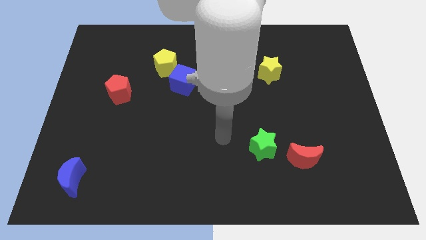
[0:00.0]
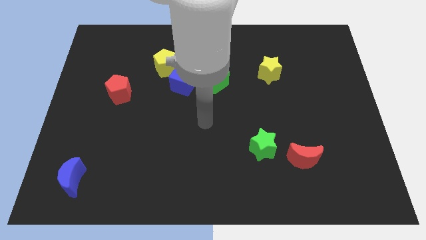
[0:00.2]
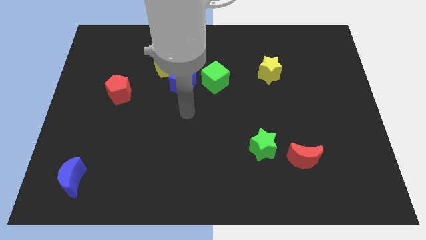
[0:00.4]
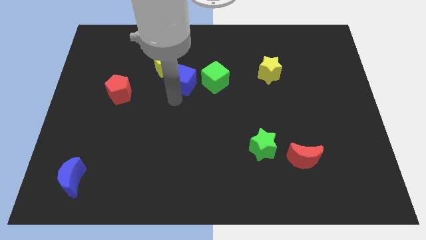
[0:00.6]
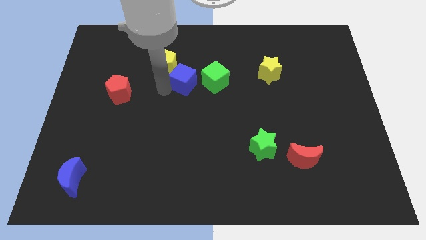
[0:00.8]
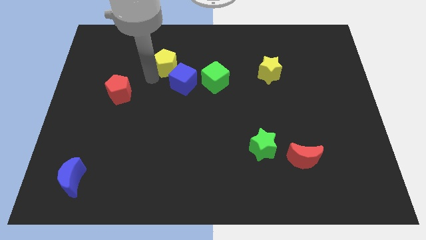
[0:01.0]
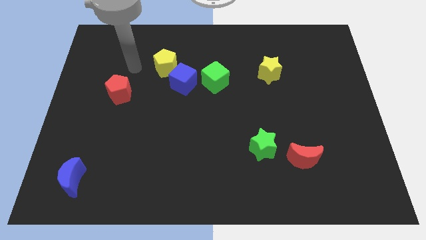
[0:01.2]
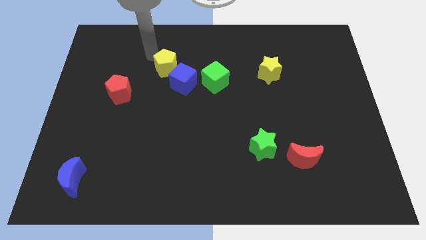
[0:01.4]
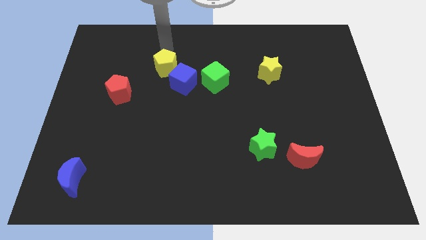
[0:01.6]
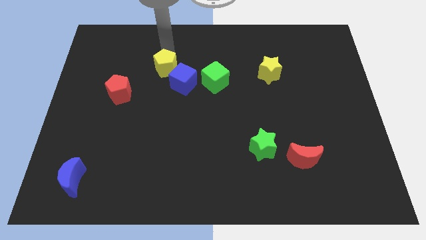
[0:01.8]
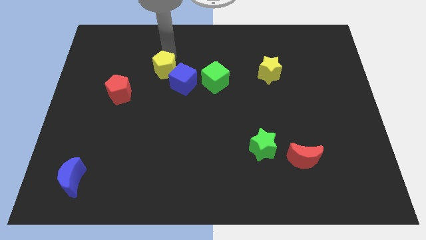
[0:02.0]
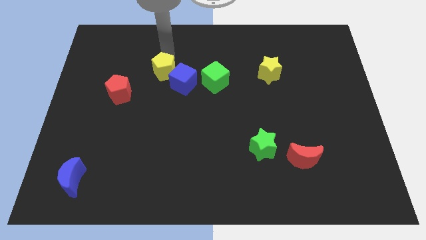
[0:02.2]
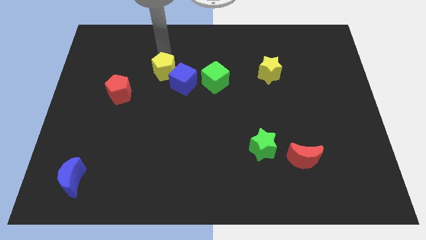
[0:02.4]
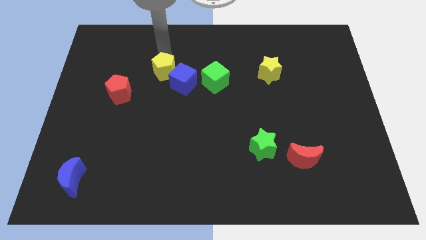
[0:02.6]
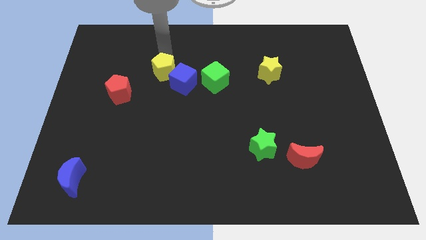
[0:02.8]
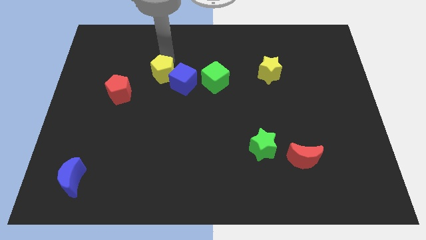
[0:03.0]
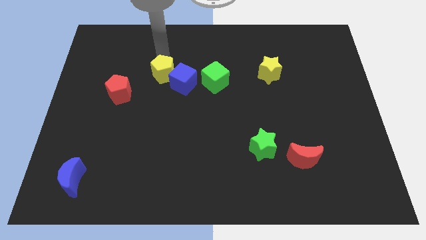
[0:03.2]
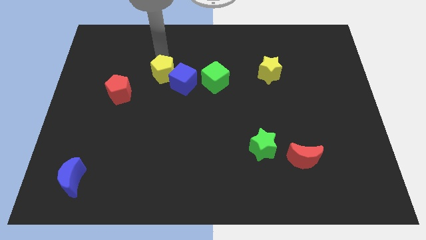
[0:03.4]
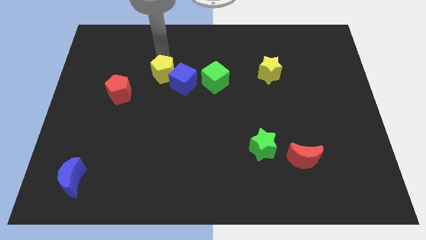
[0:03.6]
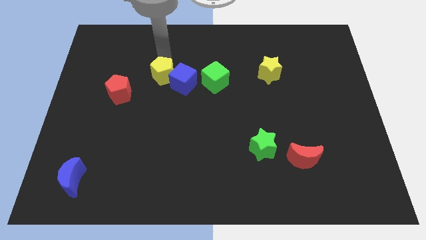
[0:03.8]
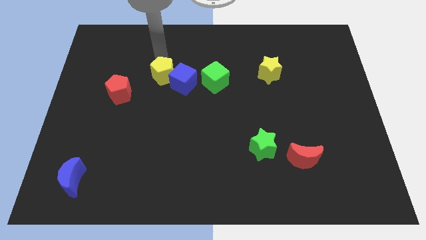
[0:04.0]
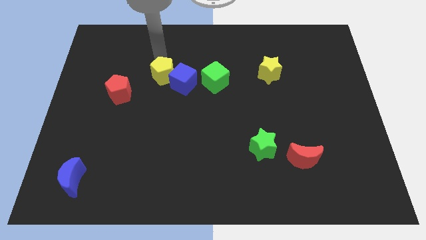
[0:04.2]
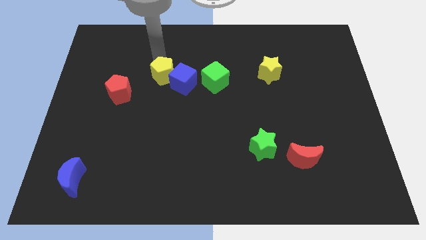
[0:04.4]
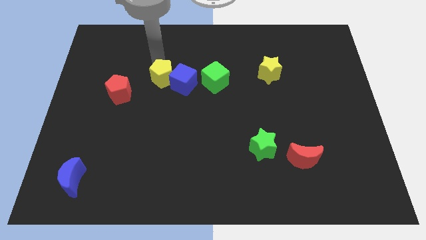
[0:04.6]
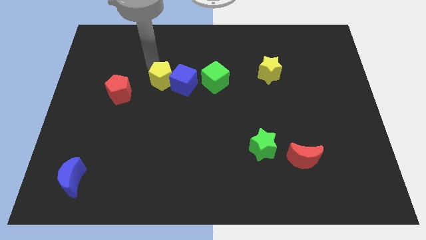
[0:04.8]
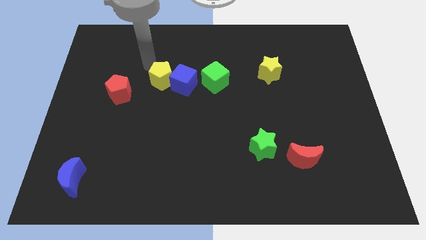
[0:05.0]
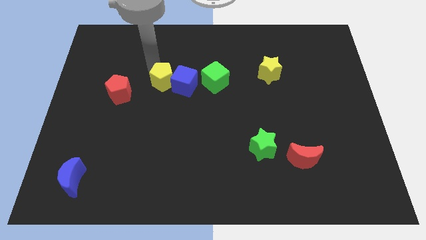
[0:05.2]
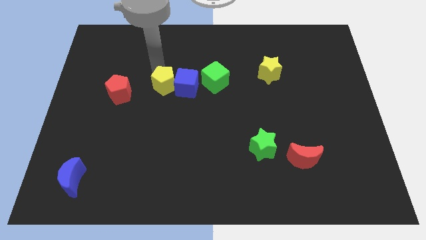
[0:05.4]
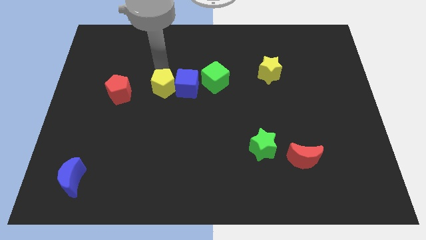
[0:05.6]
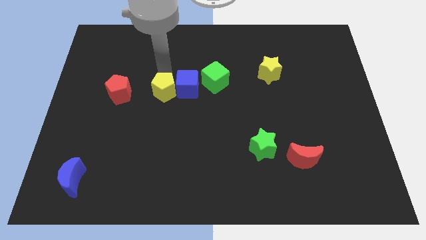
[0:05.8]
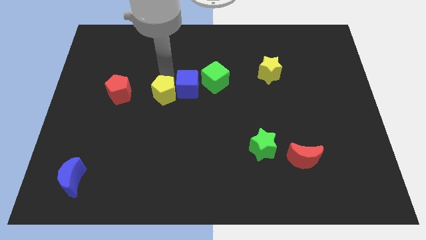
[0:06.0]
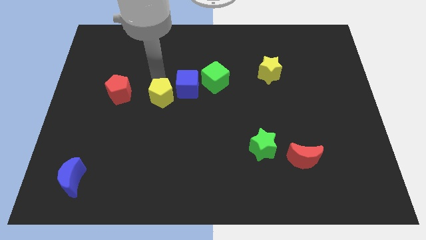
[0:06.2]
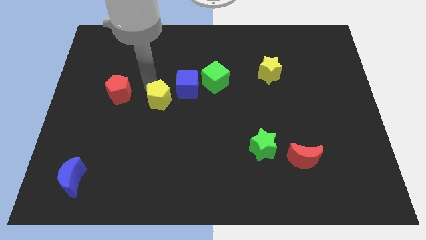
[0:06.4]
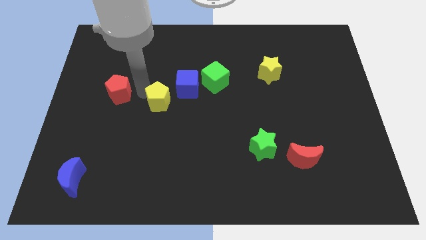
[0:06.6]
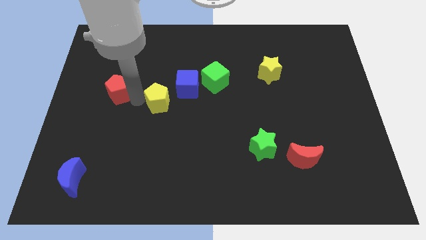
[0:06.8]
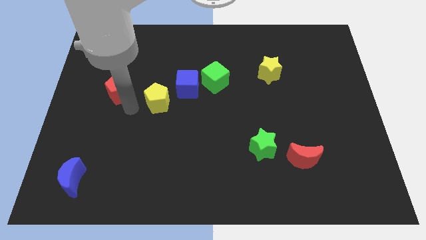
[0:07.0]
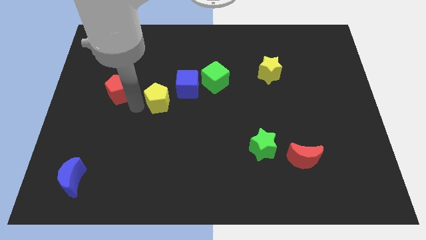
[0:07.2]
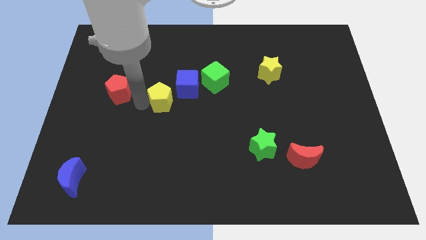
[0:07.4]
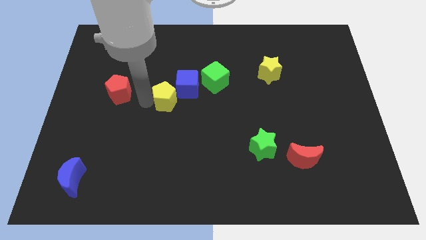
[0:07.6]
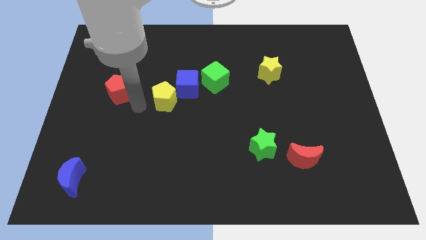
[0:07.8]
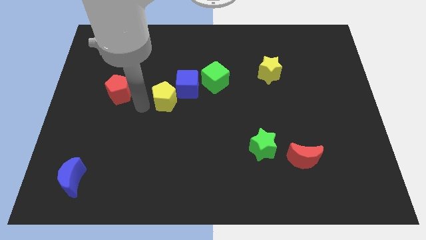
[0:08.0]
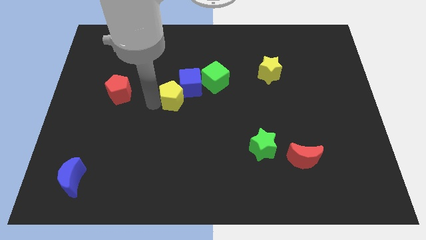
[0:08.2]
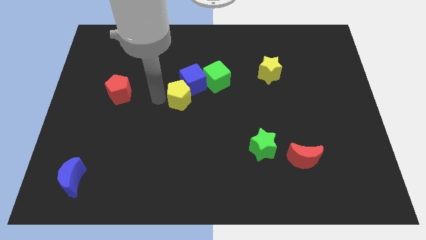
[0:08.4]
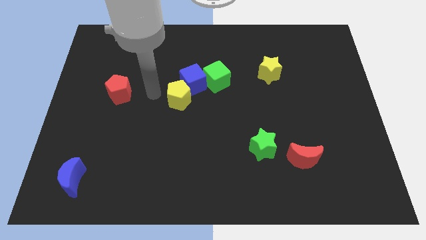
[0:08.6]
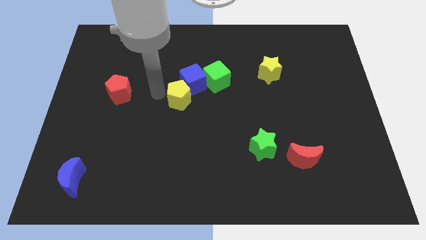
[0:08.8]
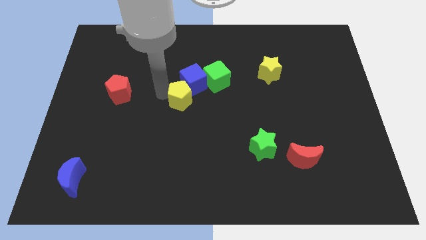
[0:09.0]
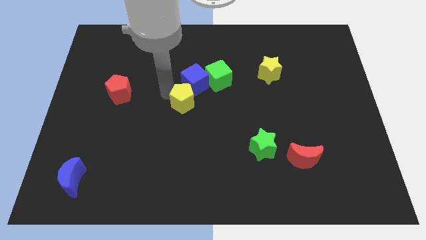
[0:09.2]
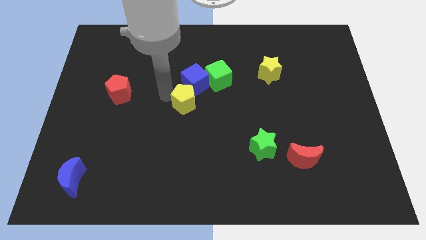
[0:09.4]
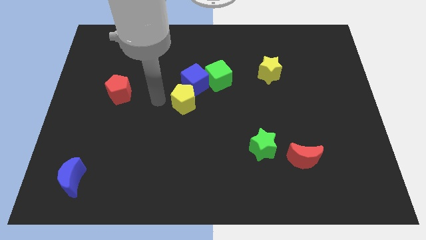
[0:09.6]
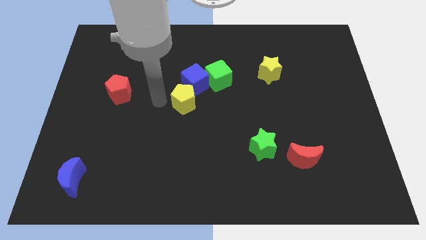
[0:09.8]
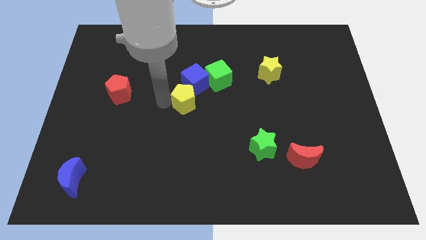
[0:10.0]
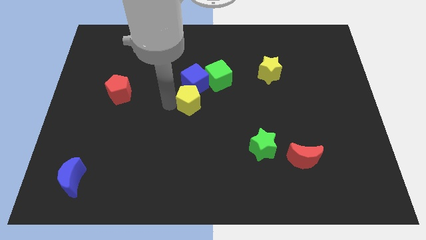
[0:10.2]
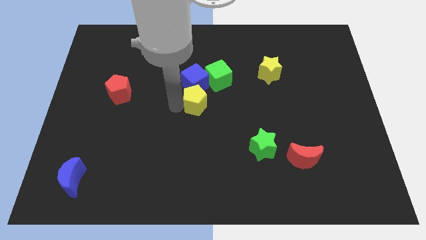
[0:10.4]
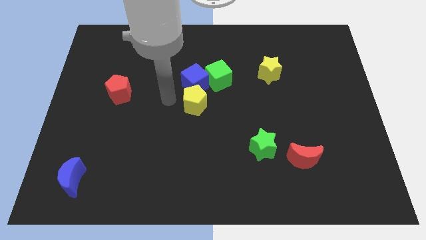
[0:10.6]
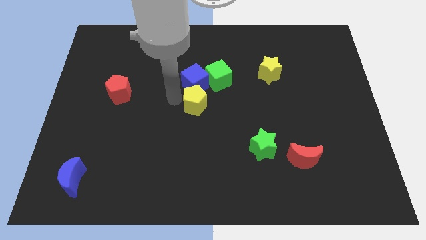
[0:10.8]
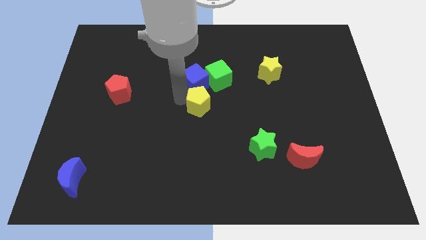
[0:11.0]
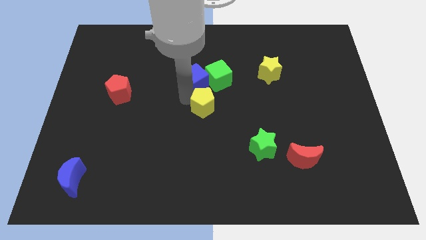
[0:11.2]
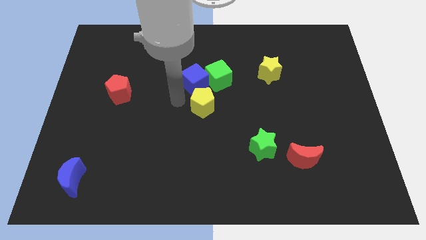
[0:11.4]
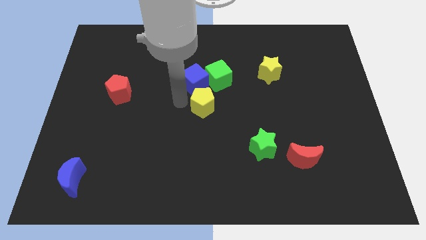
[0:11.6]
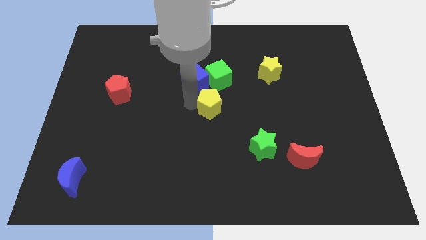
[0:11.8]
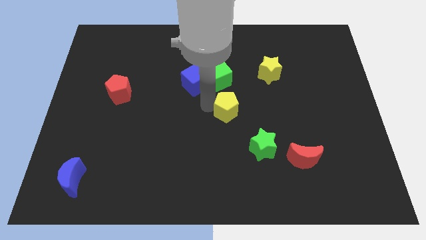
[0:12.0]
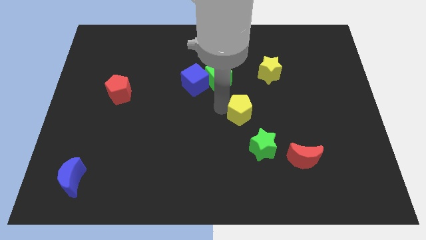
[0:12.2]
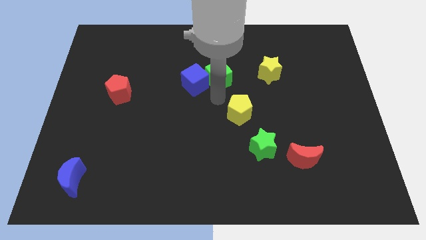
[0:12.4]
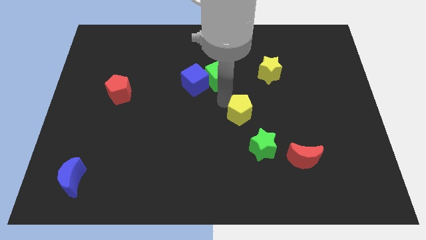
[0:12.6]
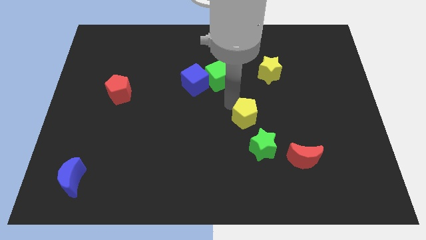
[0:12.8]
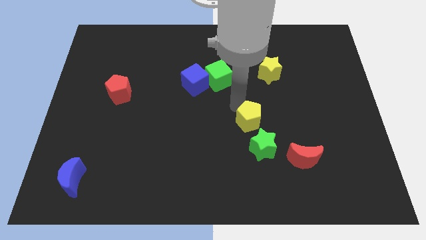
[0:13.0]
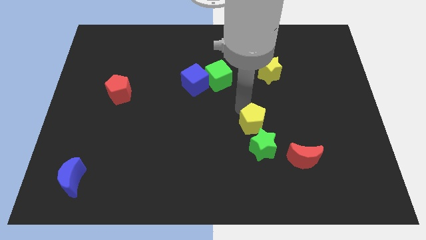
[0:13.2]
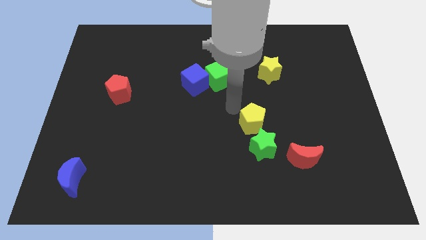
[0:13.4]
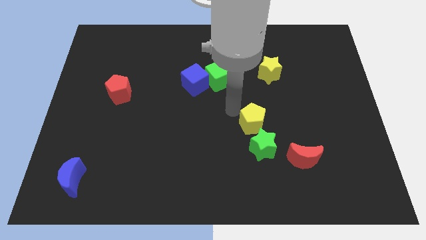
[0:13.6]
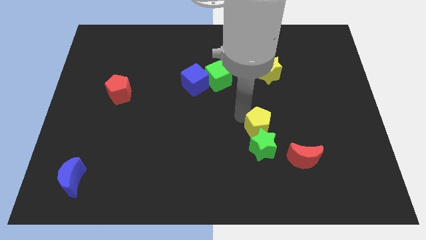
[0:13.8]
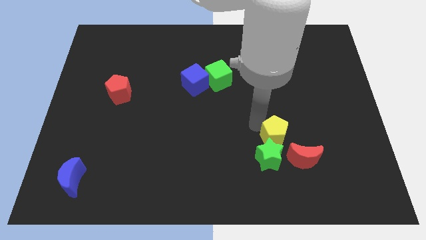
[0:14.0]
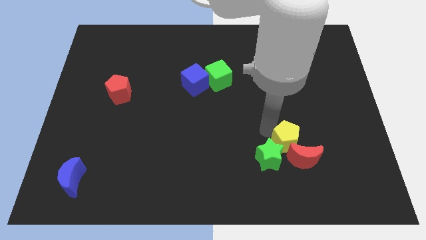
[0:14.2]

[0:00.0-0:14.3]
move the yellow pentagon to the red moon
